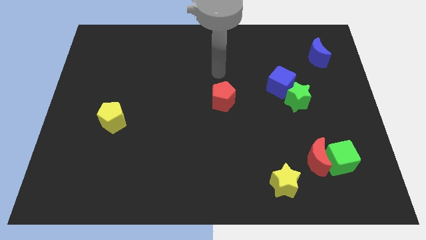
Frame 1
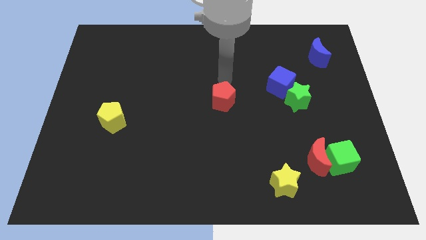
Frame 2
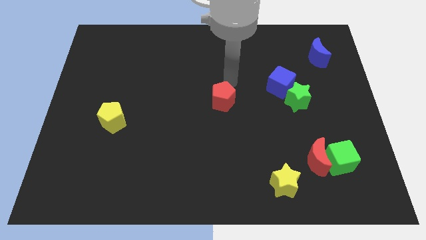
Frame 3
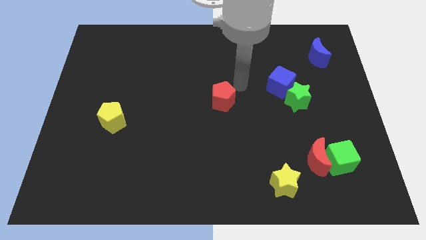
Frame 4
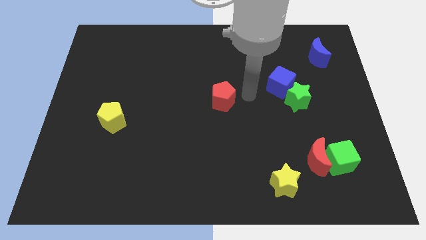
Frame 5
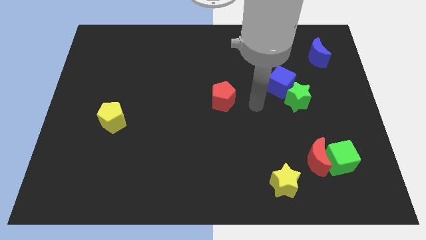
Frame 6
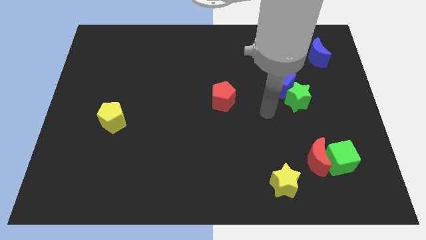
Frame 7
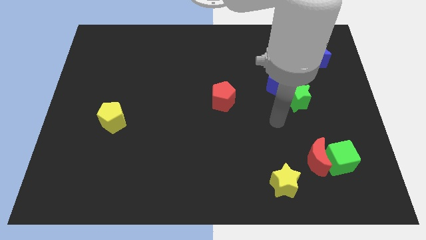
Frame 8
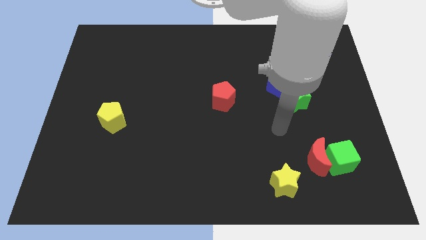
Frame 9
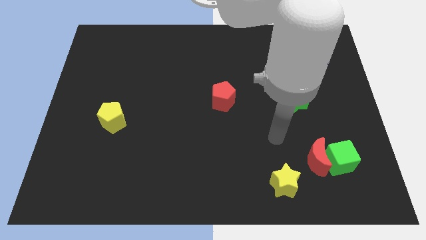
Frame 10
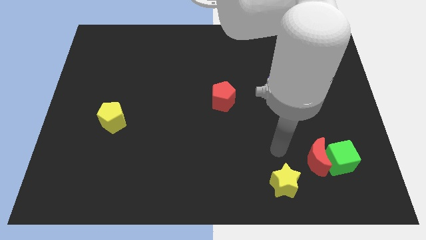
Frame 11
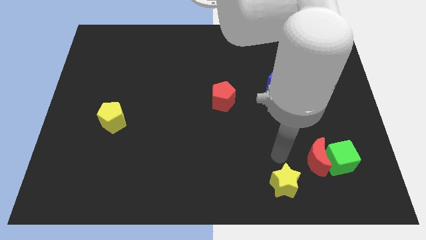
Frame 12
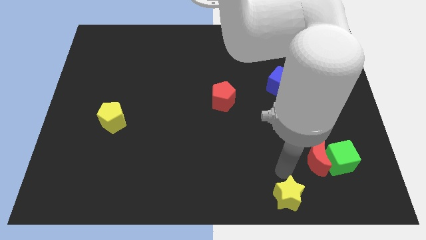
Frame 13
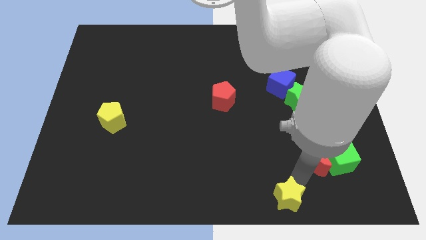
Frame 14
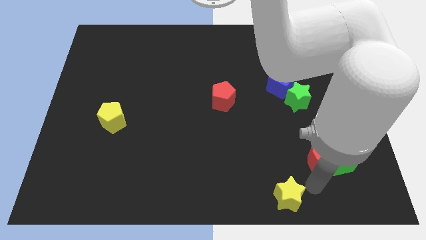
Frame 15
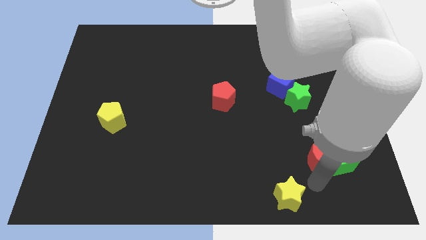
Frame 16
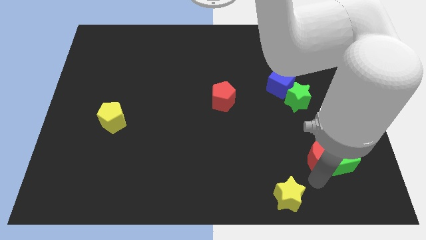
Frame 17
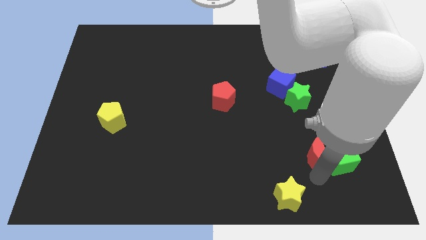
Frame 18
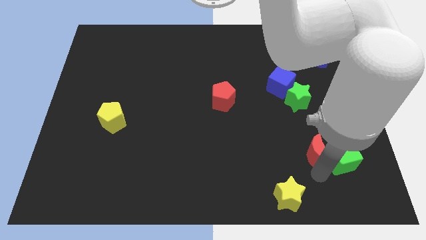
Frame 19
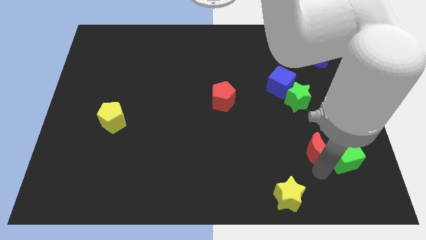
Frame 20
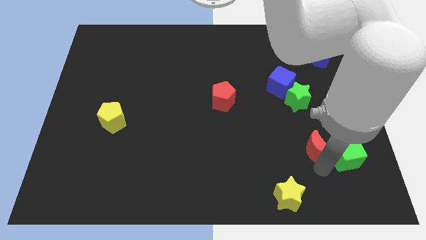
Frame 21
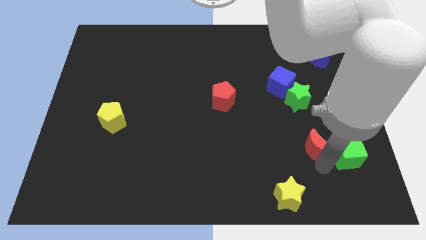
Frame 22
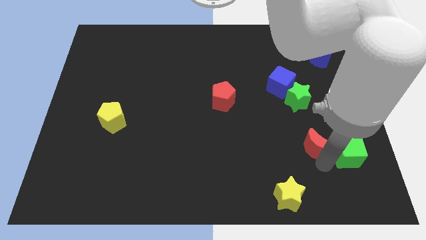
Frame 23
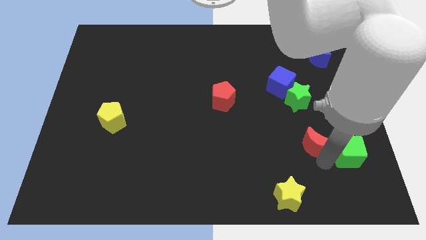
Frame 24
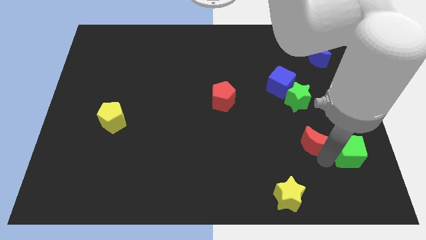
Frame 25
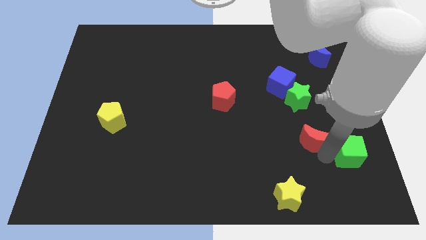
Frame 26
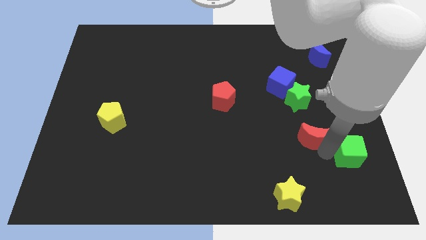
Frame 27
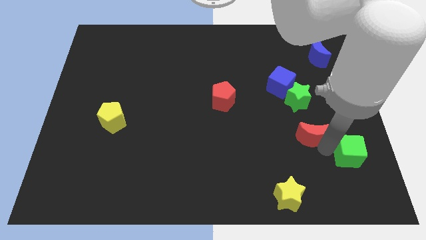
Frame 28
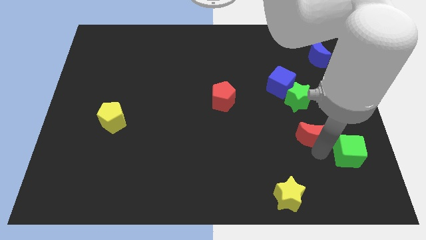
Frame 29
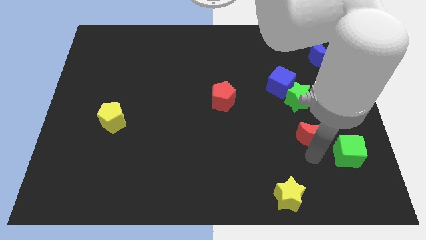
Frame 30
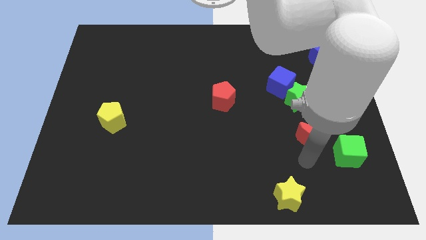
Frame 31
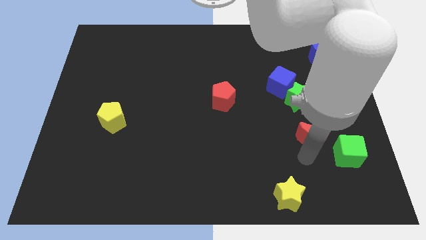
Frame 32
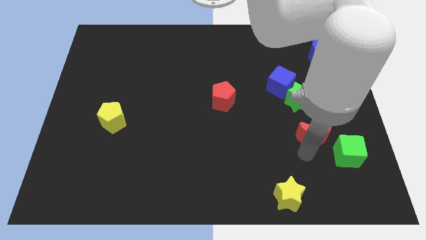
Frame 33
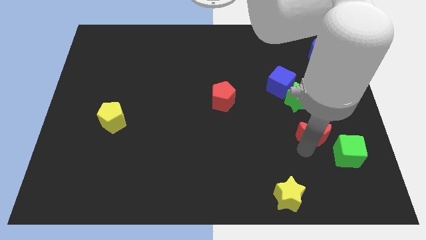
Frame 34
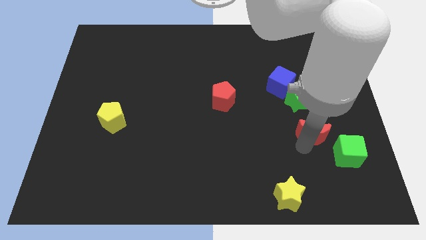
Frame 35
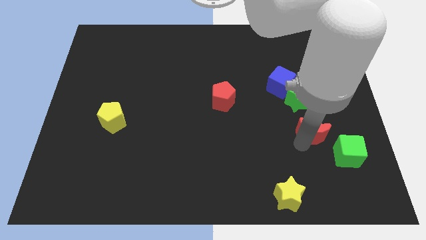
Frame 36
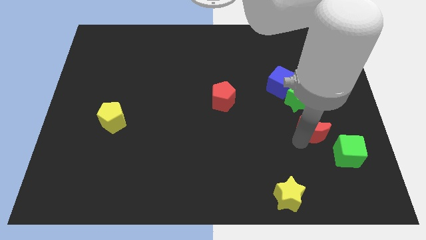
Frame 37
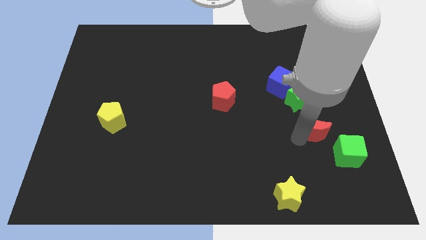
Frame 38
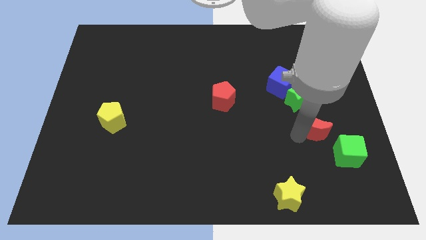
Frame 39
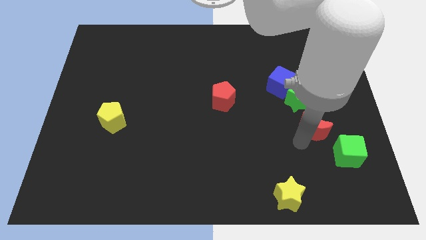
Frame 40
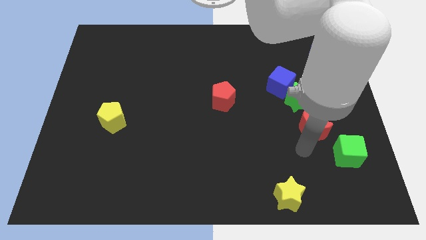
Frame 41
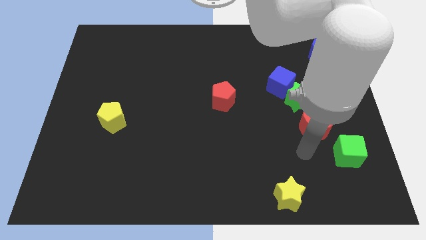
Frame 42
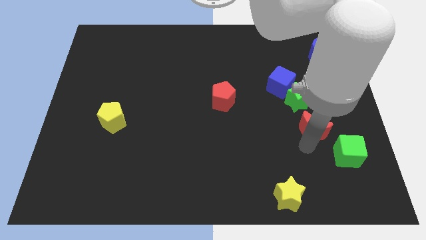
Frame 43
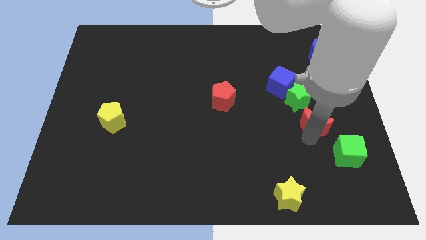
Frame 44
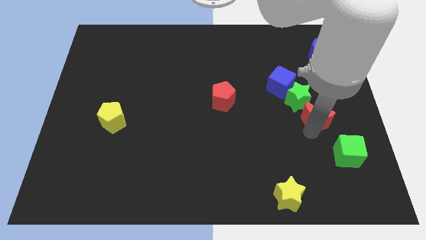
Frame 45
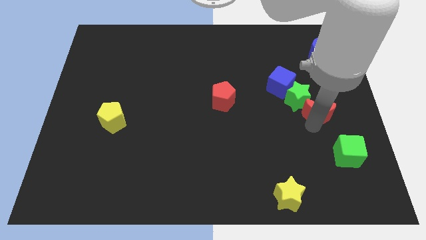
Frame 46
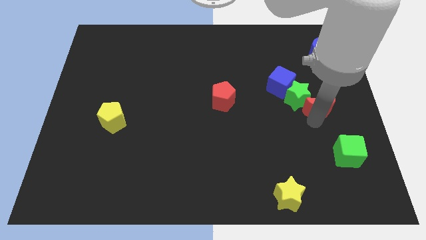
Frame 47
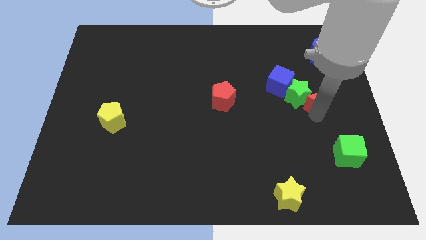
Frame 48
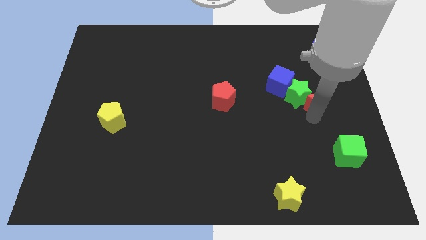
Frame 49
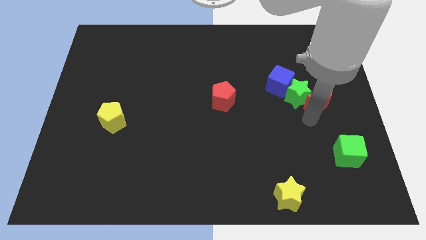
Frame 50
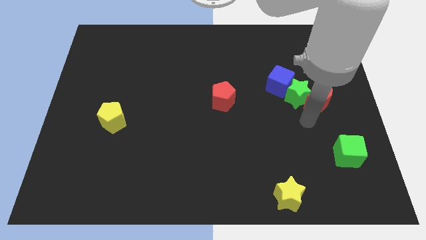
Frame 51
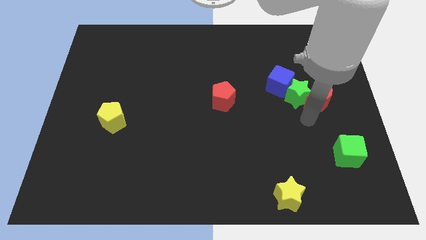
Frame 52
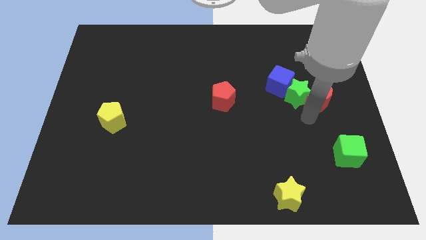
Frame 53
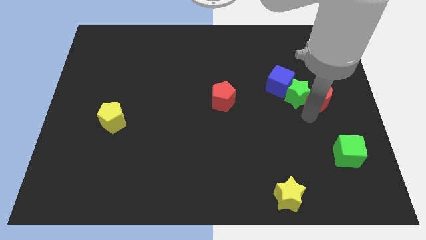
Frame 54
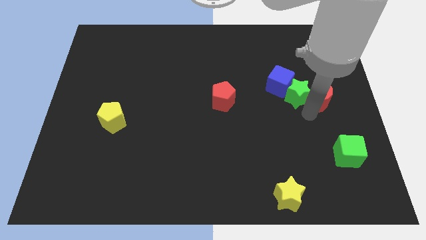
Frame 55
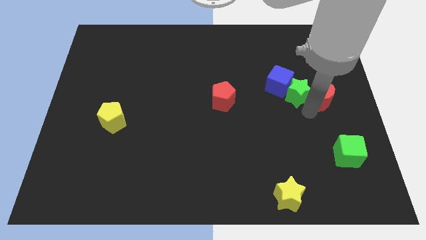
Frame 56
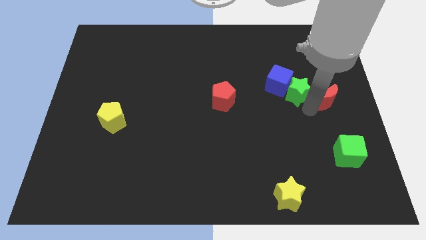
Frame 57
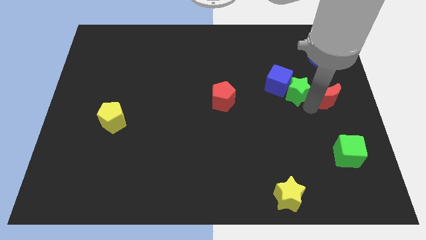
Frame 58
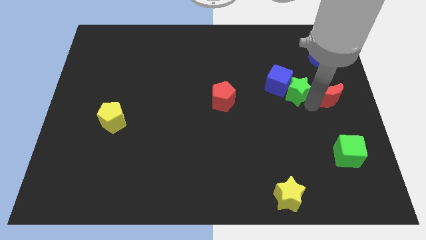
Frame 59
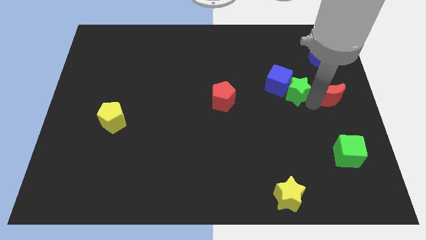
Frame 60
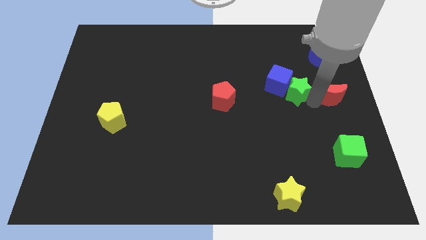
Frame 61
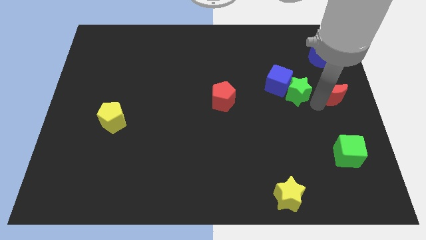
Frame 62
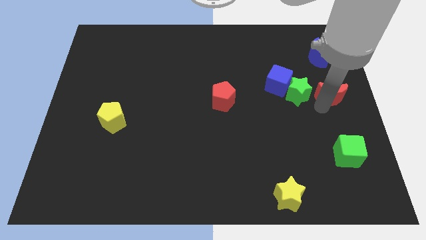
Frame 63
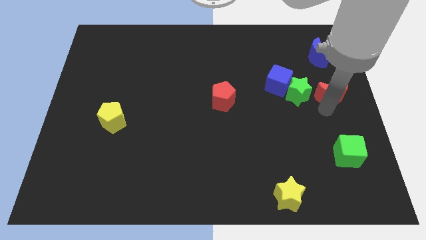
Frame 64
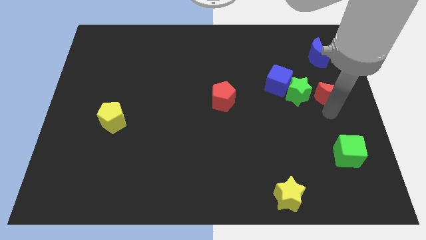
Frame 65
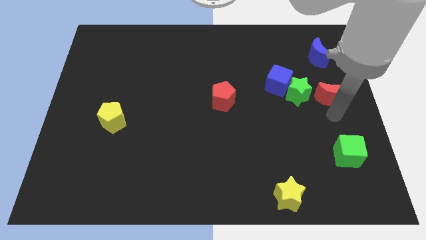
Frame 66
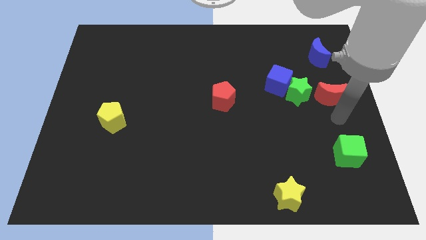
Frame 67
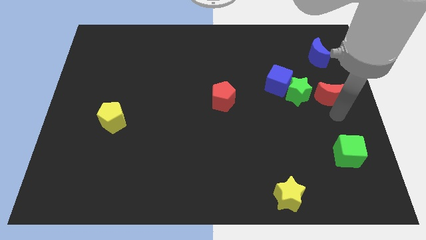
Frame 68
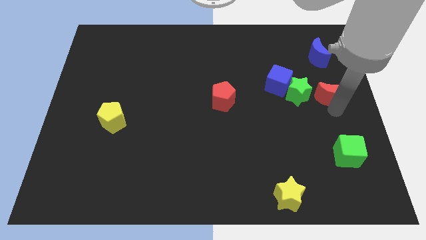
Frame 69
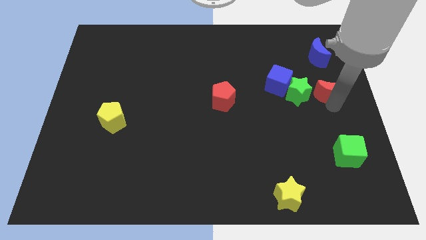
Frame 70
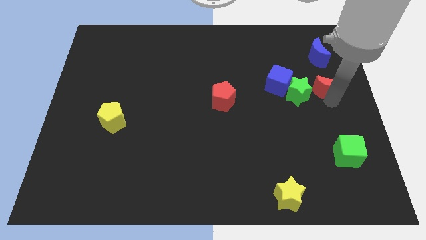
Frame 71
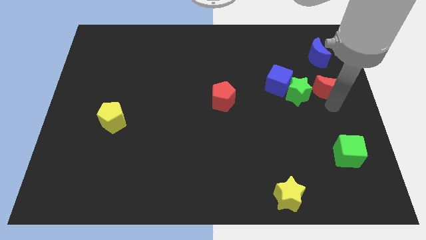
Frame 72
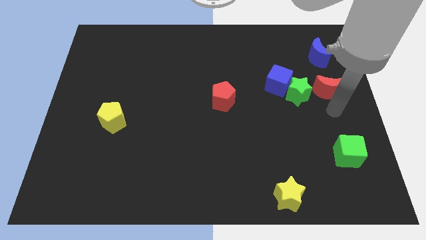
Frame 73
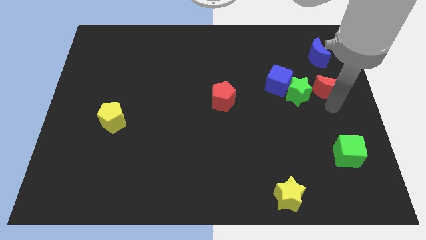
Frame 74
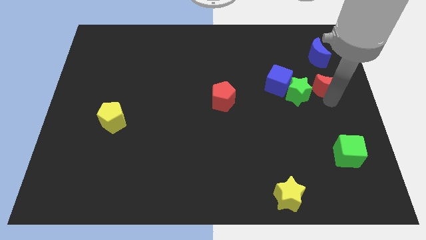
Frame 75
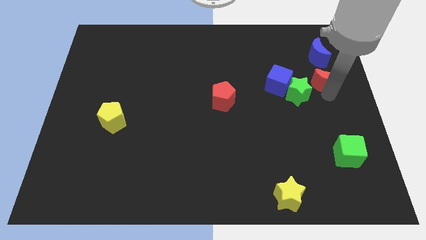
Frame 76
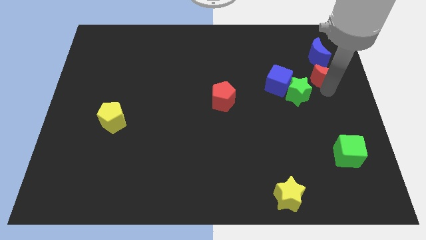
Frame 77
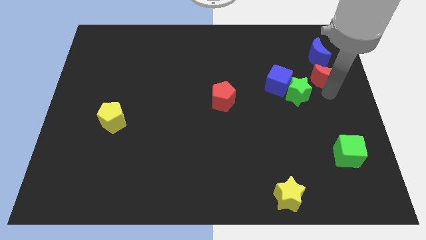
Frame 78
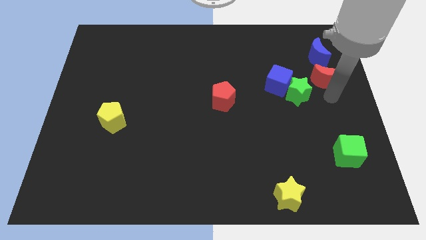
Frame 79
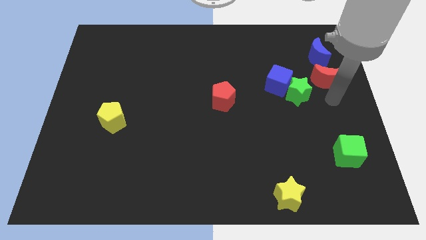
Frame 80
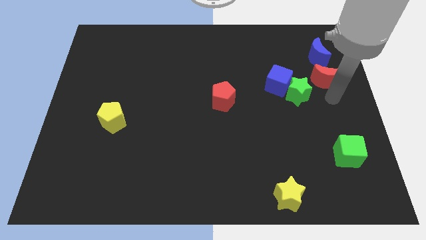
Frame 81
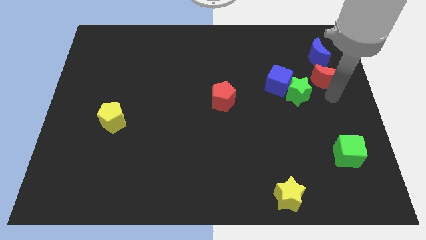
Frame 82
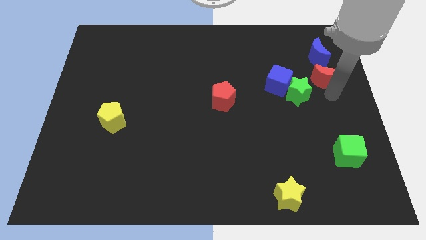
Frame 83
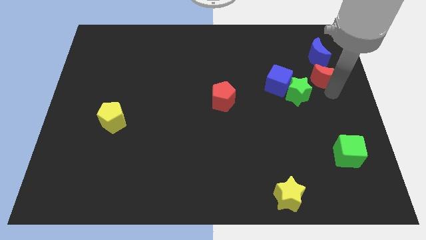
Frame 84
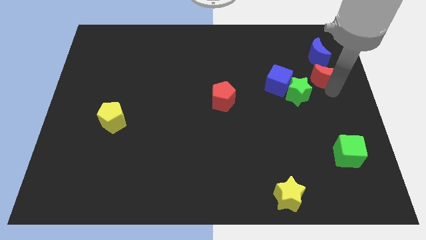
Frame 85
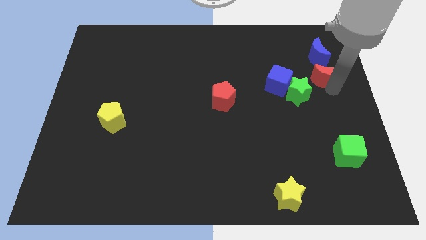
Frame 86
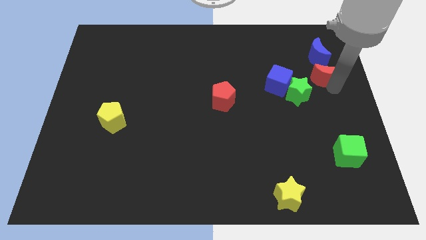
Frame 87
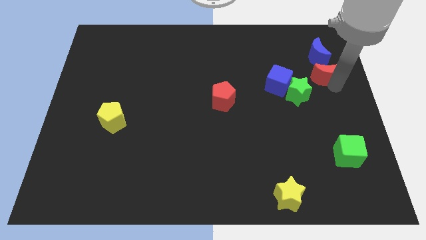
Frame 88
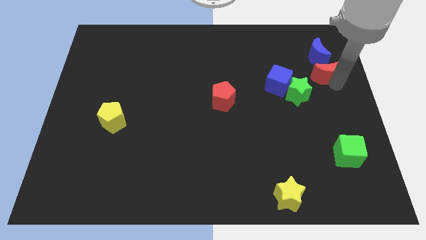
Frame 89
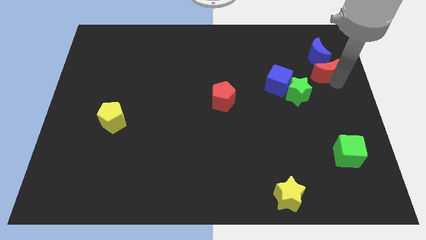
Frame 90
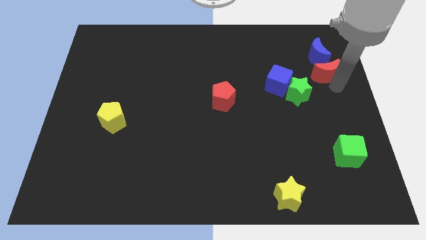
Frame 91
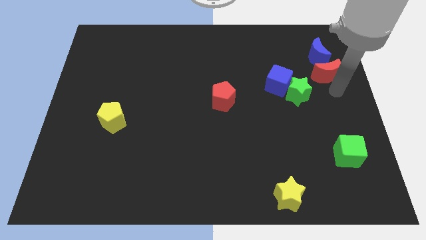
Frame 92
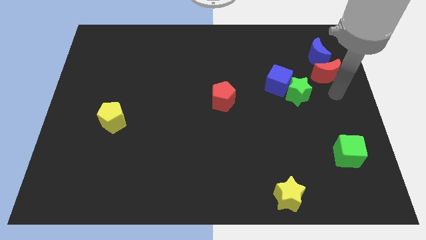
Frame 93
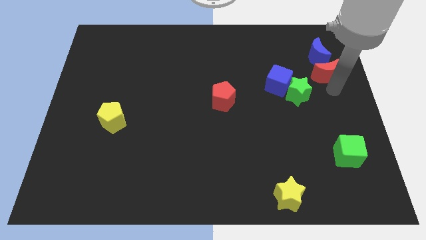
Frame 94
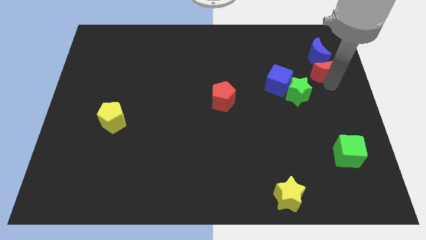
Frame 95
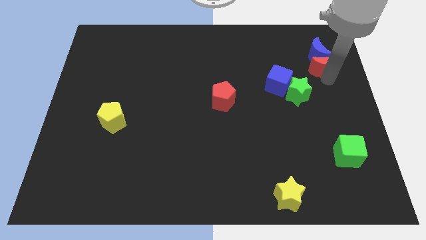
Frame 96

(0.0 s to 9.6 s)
put the red moon close to the blue moon
